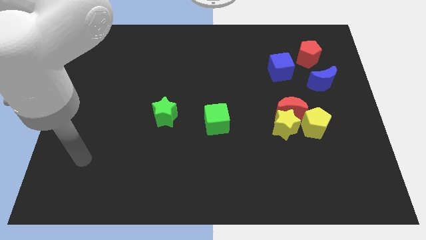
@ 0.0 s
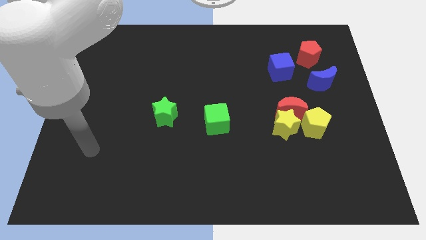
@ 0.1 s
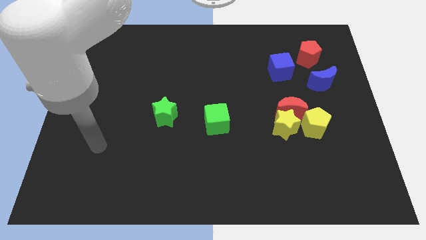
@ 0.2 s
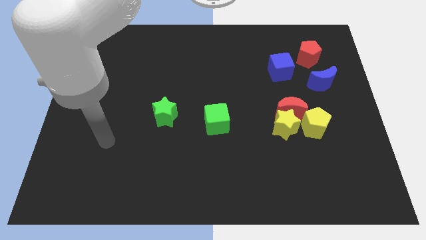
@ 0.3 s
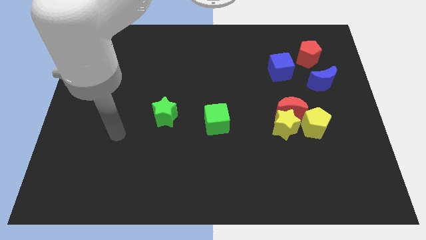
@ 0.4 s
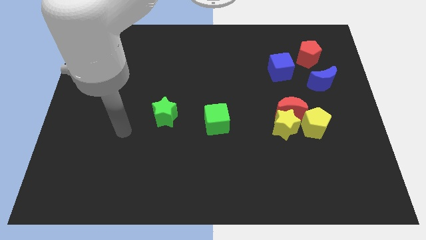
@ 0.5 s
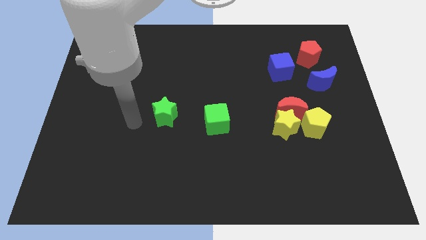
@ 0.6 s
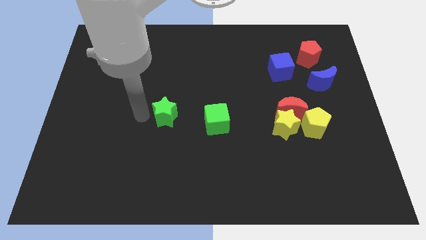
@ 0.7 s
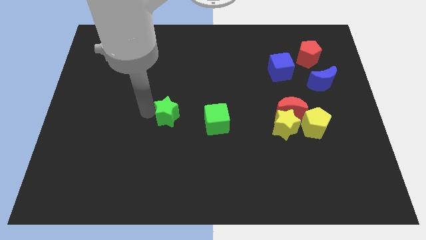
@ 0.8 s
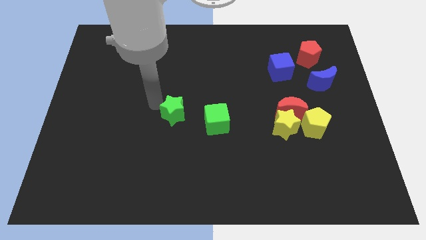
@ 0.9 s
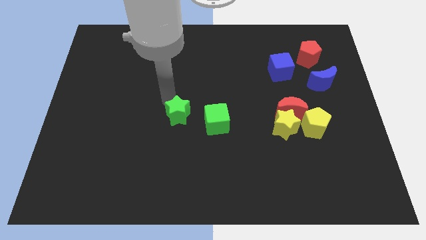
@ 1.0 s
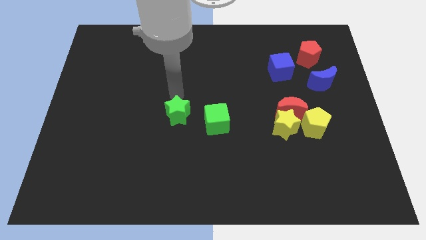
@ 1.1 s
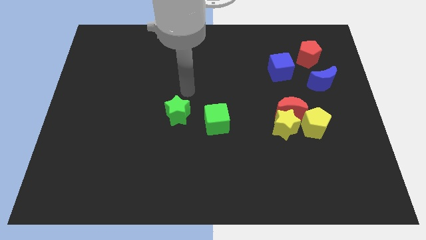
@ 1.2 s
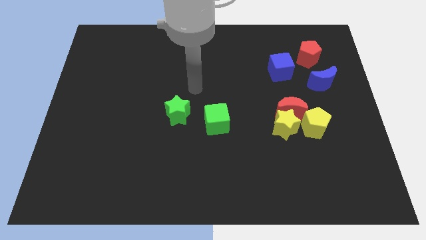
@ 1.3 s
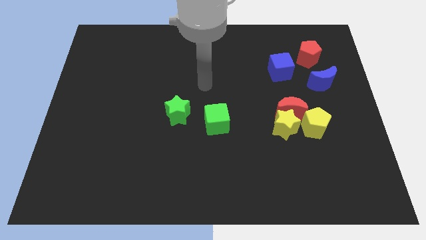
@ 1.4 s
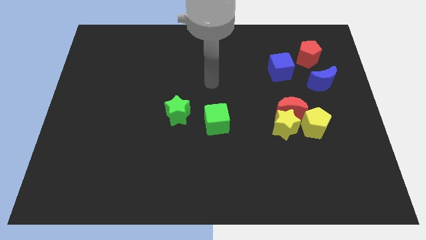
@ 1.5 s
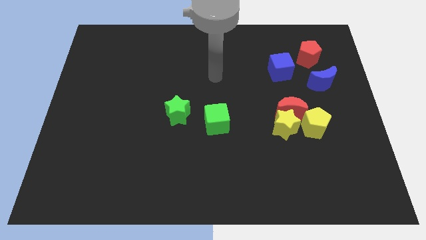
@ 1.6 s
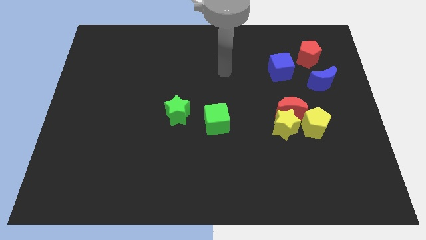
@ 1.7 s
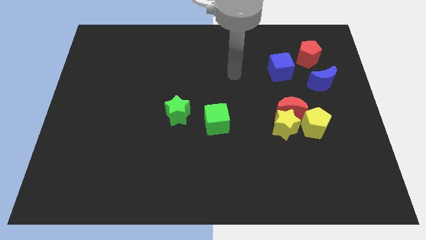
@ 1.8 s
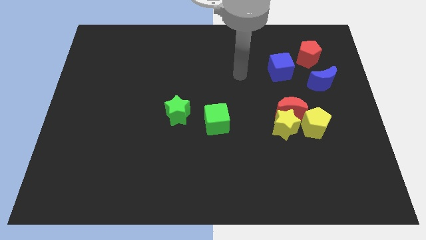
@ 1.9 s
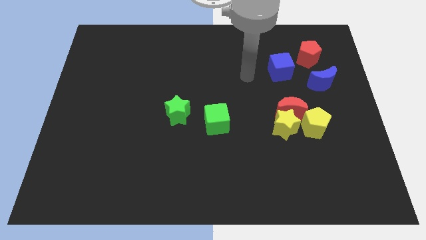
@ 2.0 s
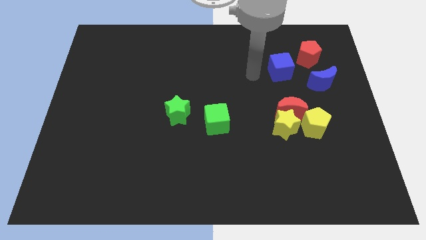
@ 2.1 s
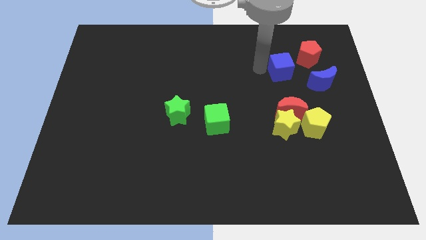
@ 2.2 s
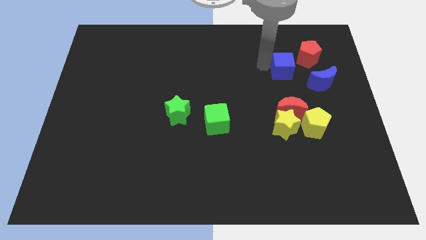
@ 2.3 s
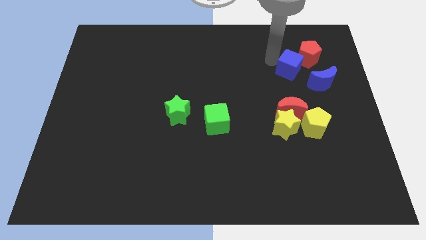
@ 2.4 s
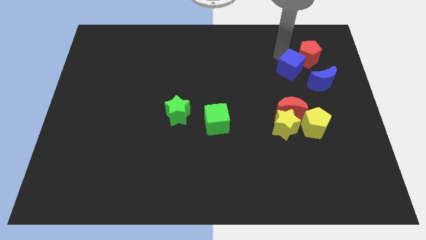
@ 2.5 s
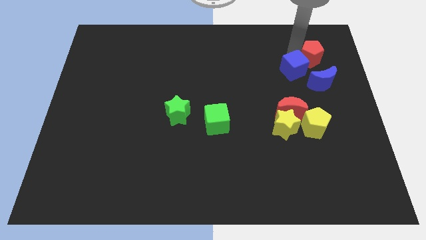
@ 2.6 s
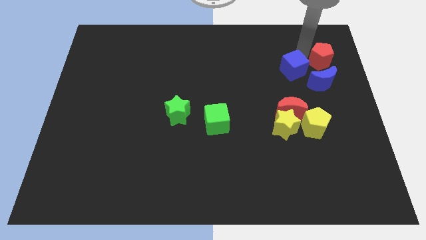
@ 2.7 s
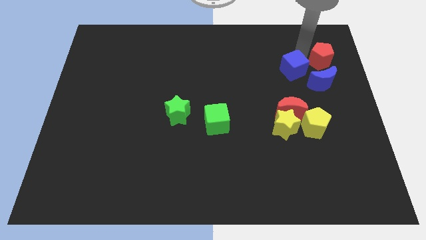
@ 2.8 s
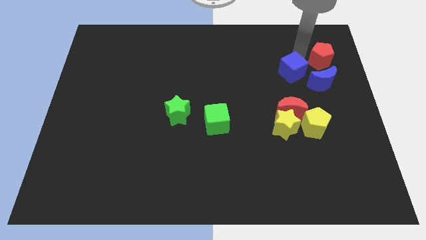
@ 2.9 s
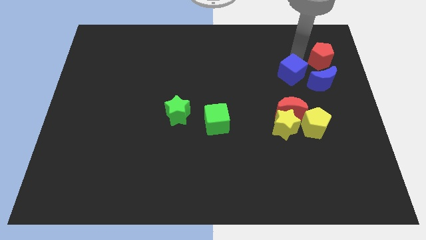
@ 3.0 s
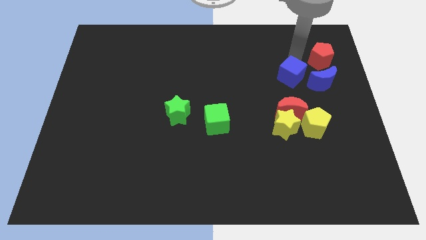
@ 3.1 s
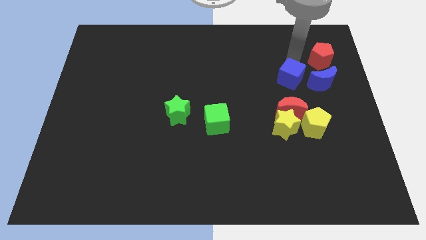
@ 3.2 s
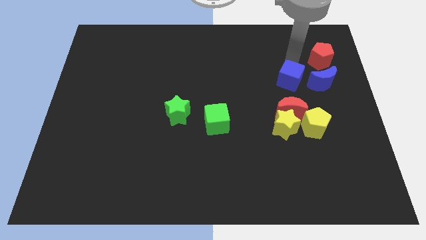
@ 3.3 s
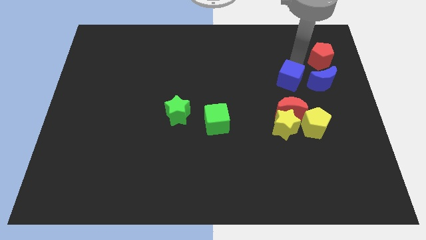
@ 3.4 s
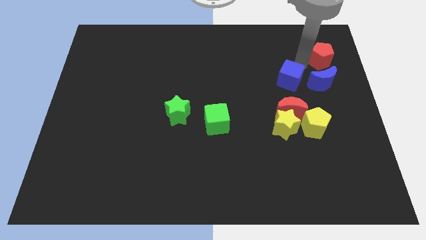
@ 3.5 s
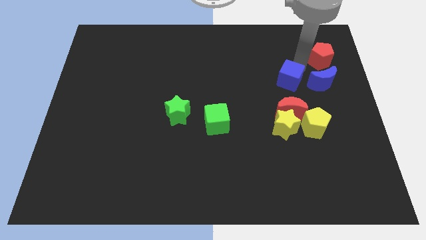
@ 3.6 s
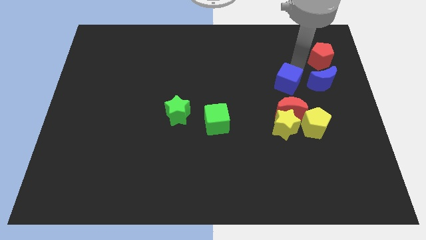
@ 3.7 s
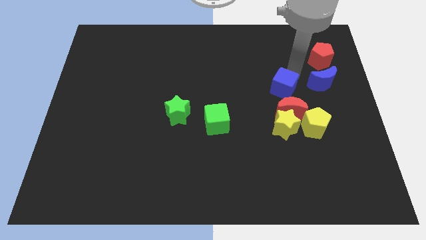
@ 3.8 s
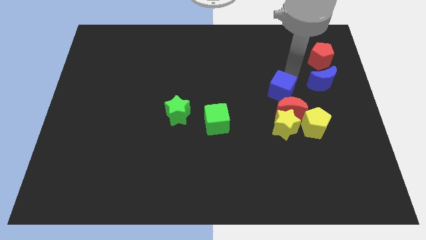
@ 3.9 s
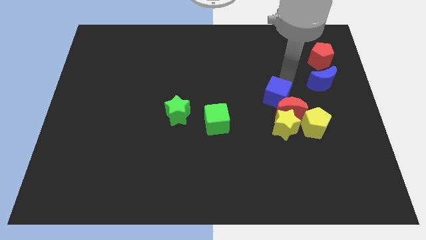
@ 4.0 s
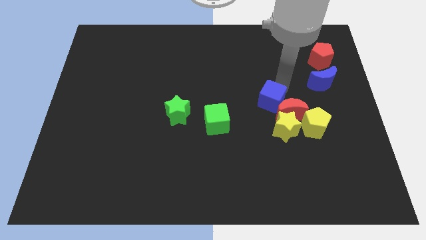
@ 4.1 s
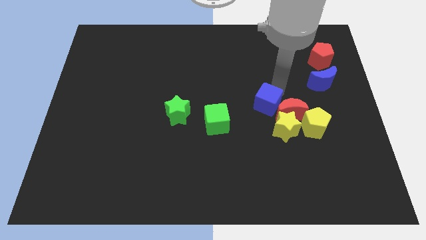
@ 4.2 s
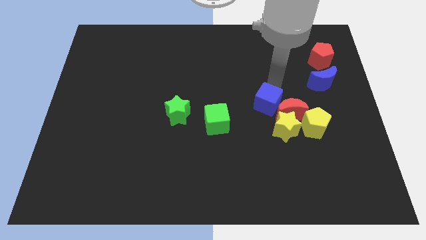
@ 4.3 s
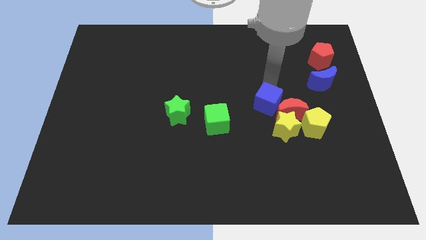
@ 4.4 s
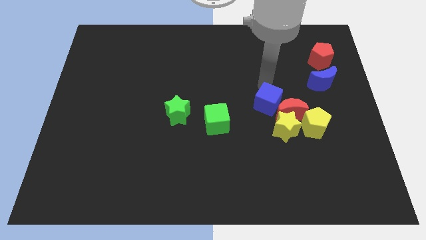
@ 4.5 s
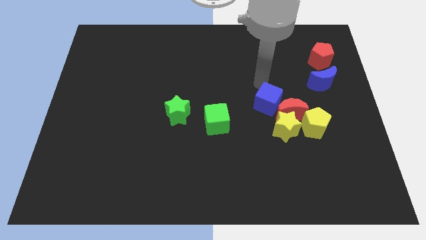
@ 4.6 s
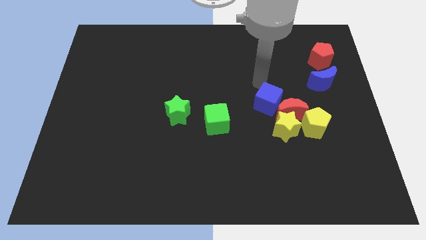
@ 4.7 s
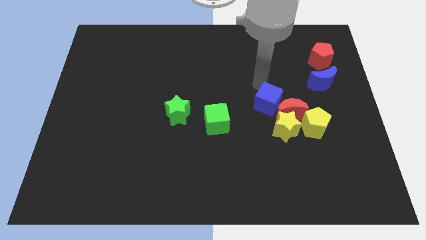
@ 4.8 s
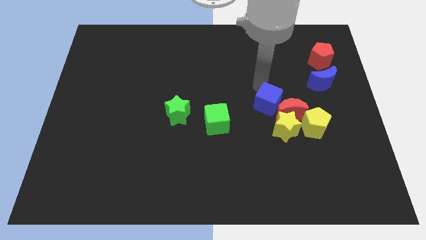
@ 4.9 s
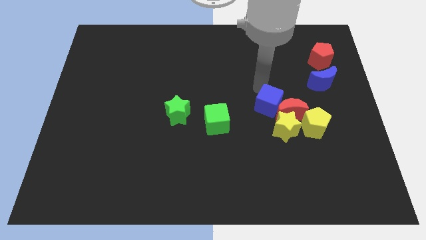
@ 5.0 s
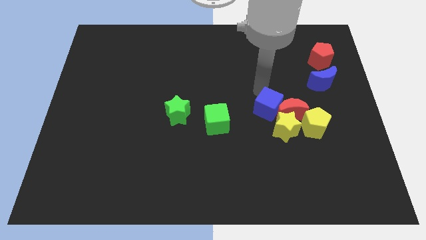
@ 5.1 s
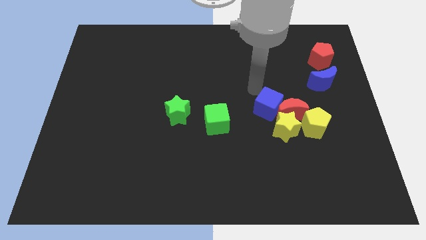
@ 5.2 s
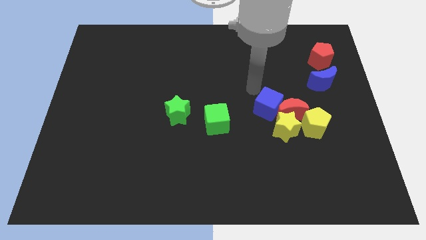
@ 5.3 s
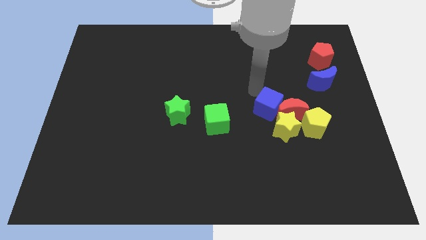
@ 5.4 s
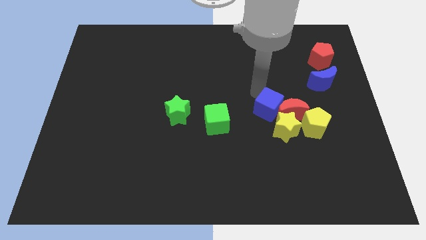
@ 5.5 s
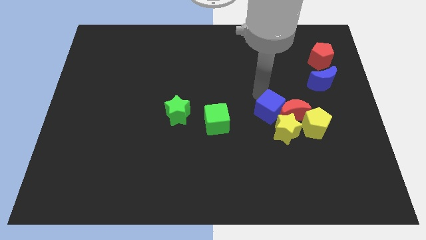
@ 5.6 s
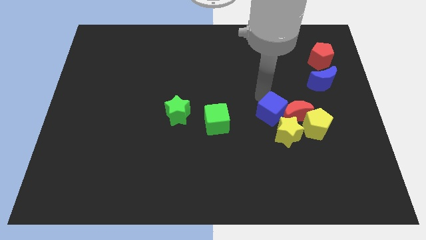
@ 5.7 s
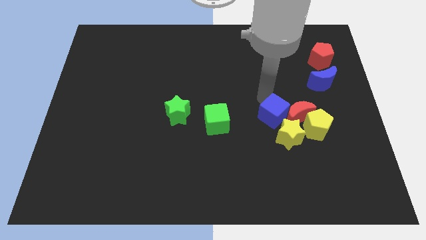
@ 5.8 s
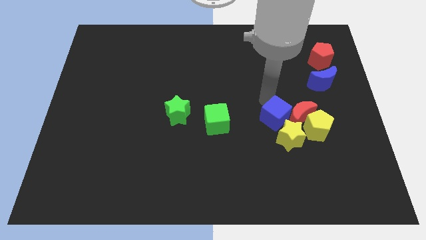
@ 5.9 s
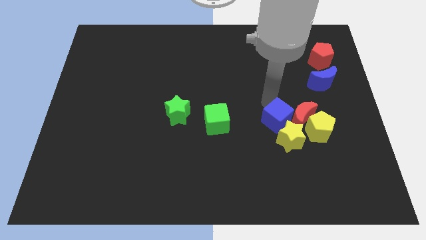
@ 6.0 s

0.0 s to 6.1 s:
put the blue cube next to the yellow star

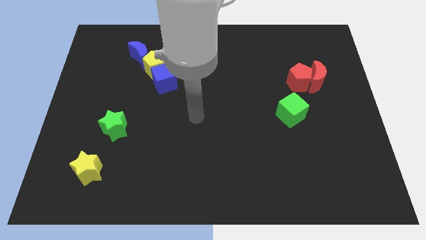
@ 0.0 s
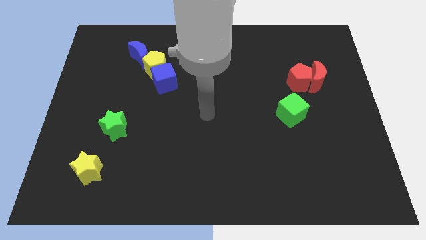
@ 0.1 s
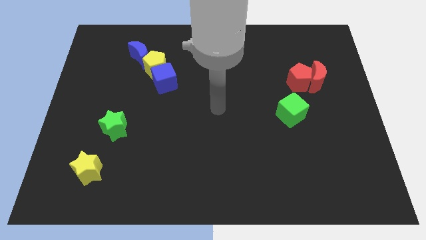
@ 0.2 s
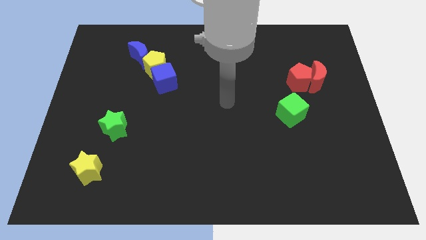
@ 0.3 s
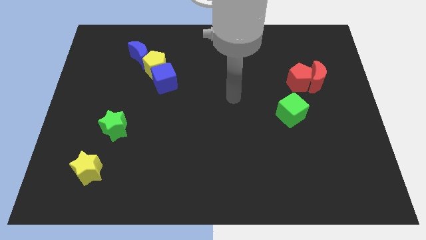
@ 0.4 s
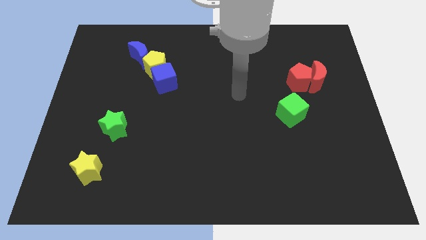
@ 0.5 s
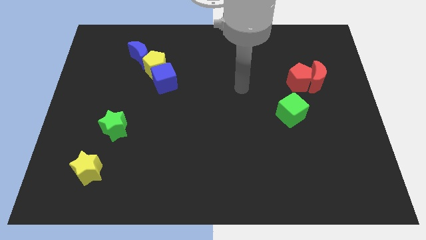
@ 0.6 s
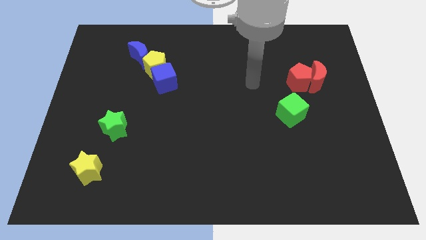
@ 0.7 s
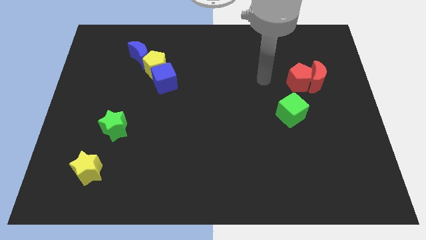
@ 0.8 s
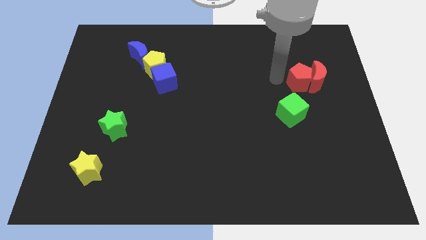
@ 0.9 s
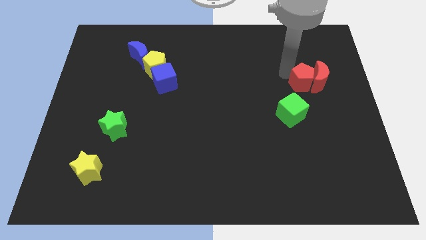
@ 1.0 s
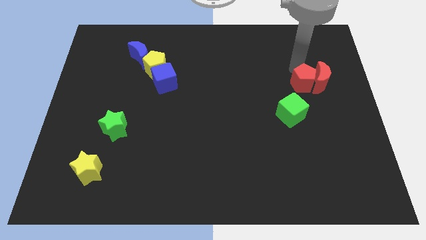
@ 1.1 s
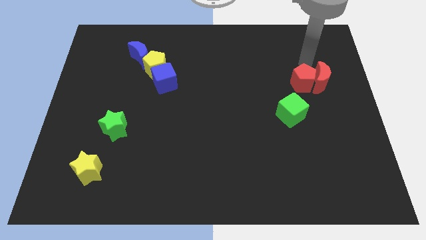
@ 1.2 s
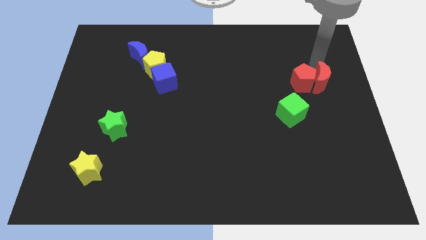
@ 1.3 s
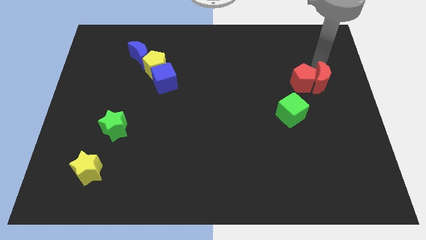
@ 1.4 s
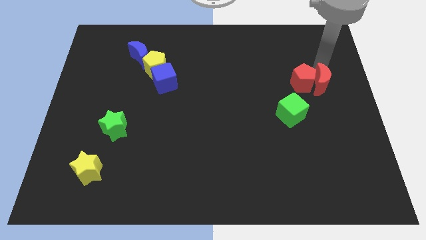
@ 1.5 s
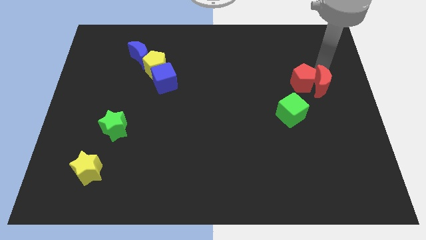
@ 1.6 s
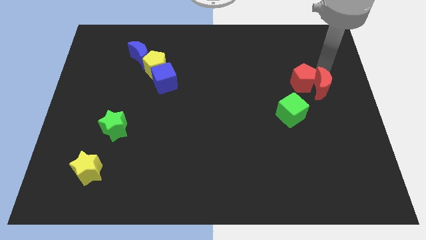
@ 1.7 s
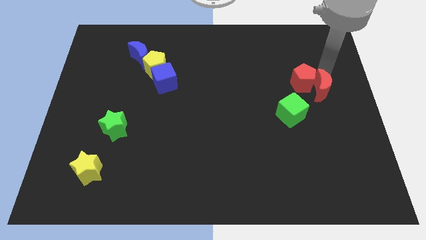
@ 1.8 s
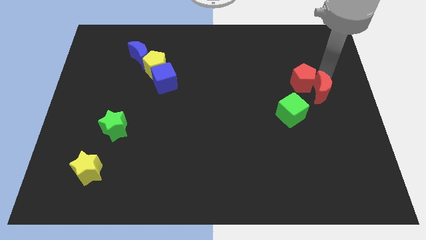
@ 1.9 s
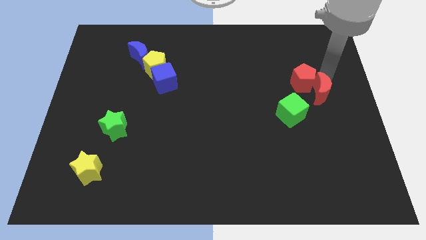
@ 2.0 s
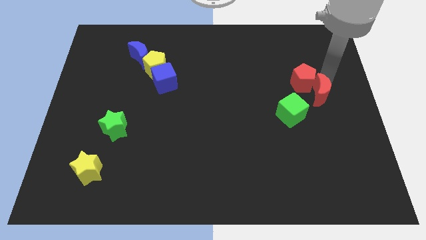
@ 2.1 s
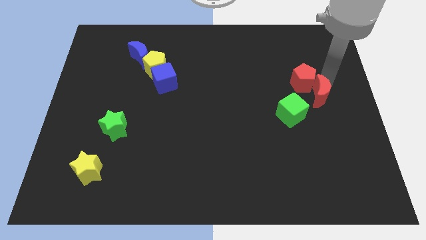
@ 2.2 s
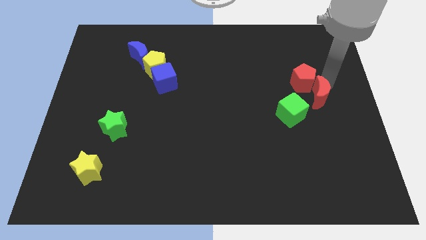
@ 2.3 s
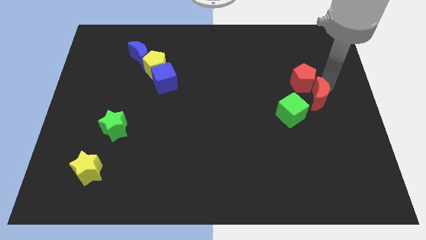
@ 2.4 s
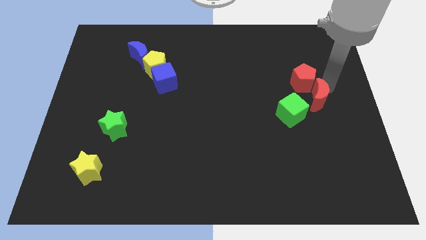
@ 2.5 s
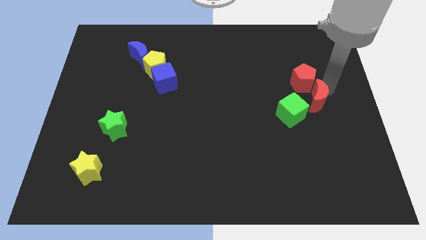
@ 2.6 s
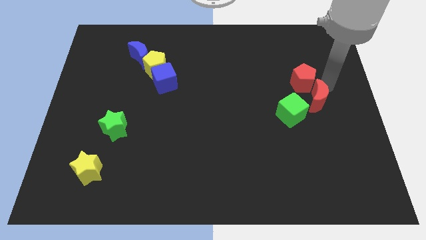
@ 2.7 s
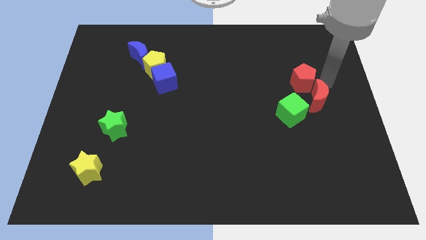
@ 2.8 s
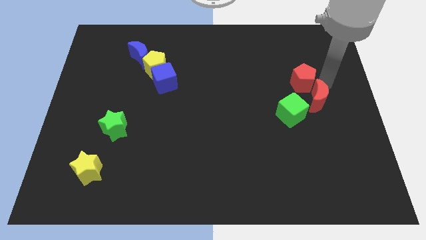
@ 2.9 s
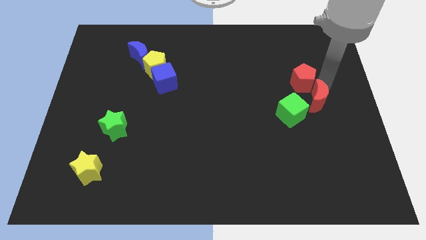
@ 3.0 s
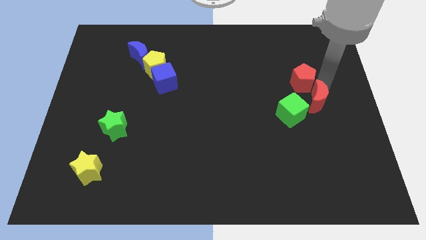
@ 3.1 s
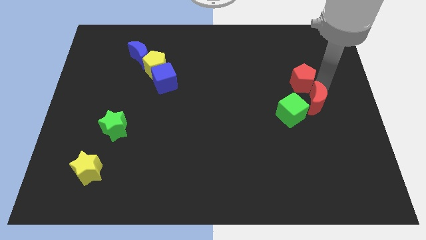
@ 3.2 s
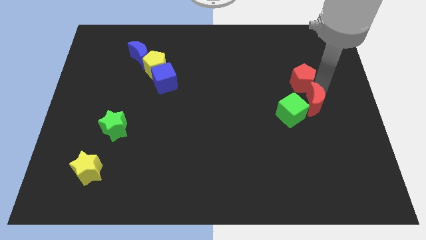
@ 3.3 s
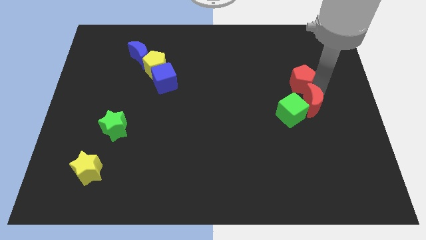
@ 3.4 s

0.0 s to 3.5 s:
put the red moon to the green cube
